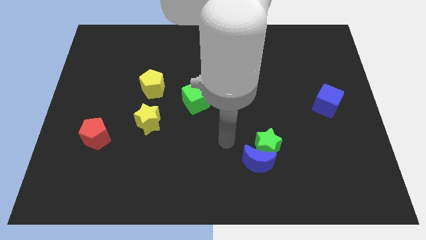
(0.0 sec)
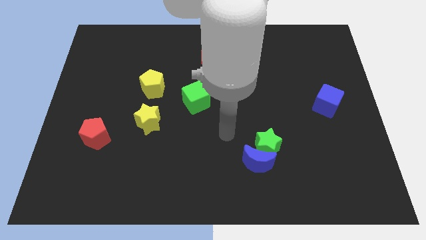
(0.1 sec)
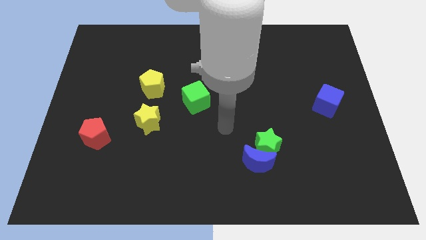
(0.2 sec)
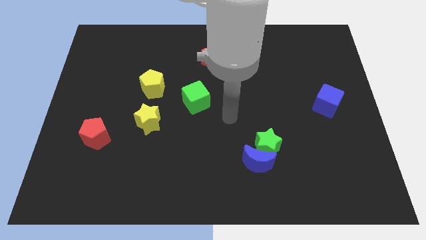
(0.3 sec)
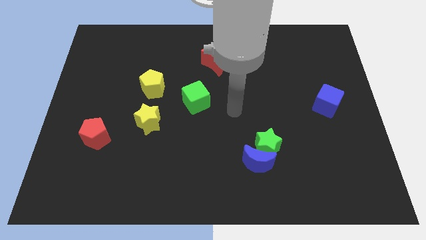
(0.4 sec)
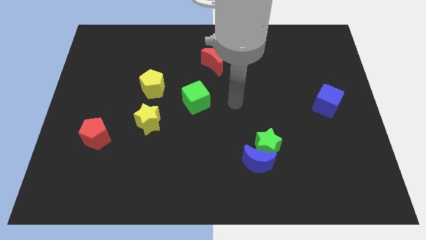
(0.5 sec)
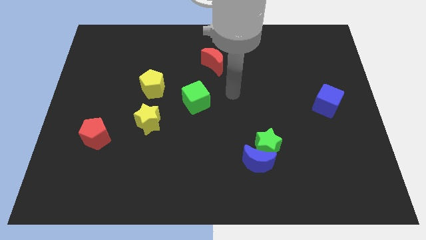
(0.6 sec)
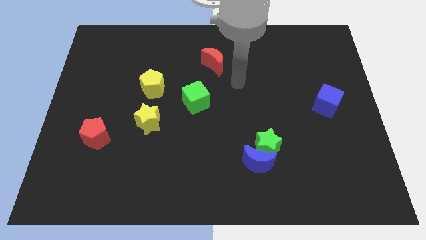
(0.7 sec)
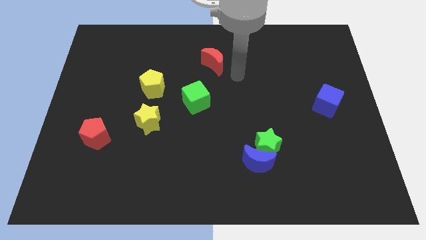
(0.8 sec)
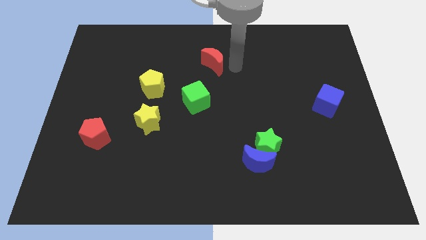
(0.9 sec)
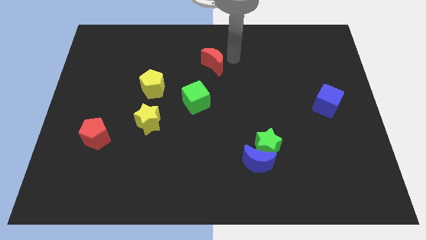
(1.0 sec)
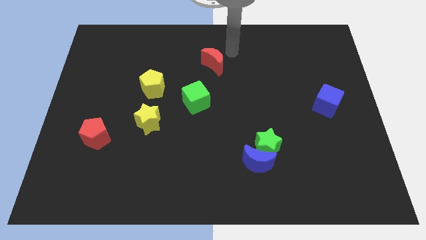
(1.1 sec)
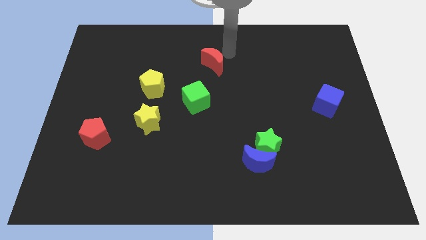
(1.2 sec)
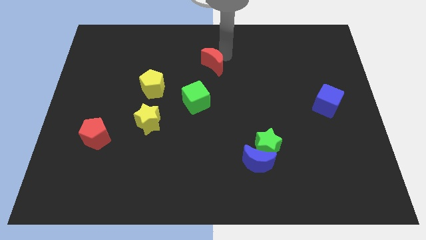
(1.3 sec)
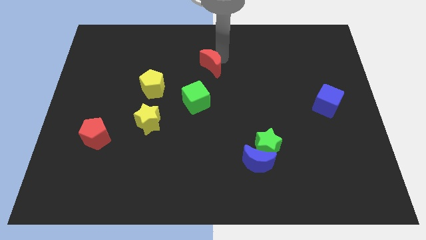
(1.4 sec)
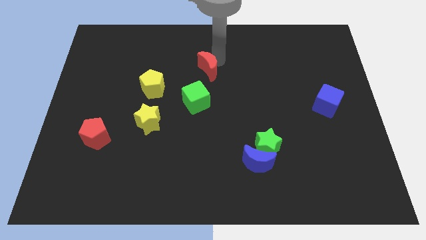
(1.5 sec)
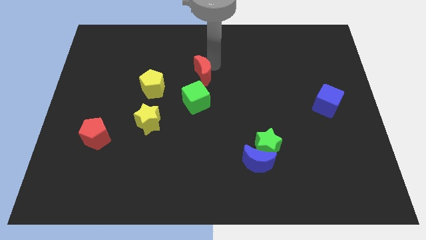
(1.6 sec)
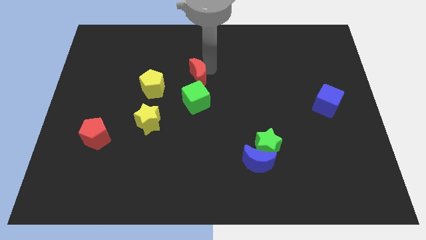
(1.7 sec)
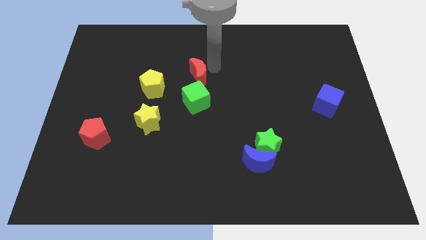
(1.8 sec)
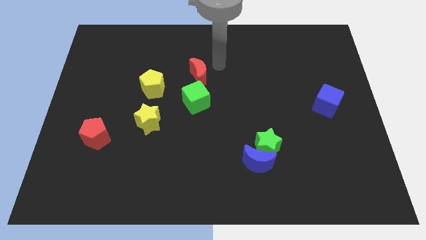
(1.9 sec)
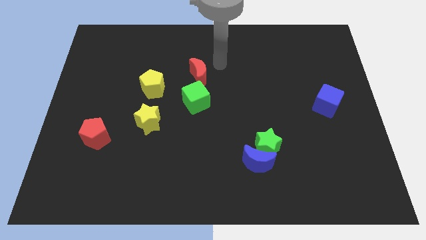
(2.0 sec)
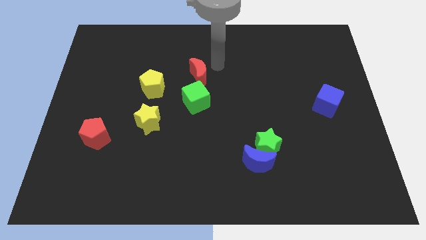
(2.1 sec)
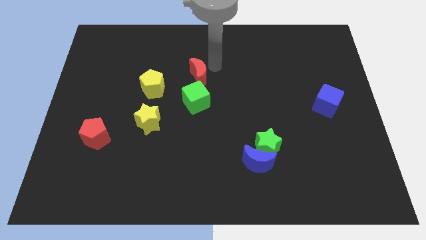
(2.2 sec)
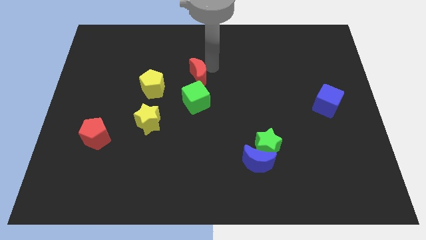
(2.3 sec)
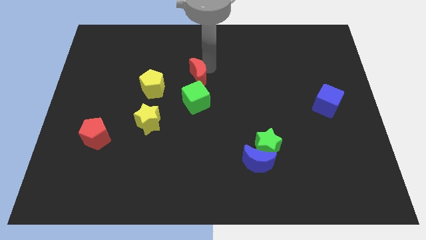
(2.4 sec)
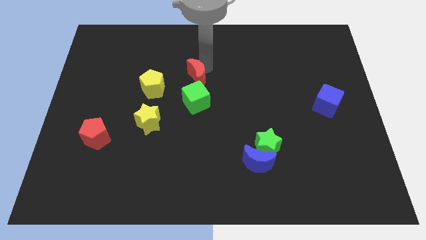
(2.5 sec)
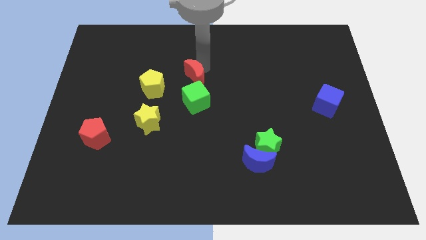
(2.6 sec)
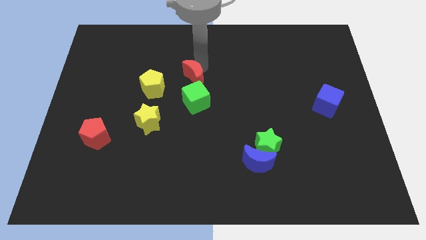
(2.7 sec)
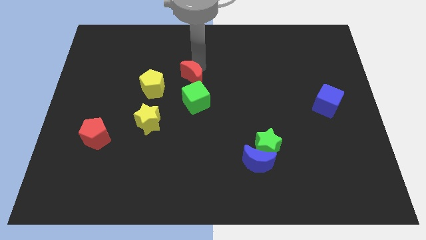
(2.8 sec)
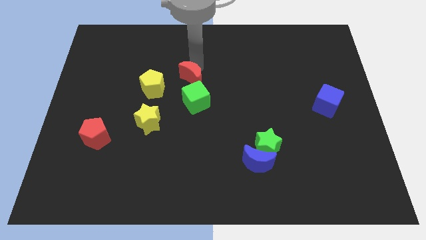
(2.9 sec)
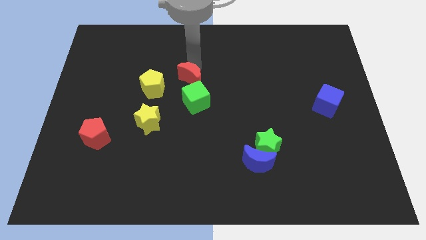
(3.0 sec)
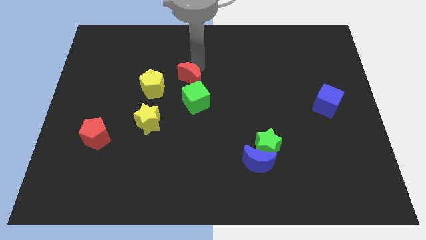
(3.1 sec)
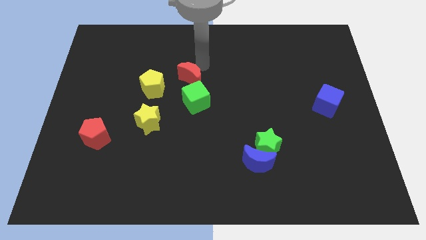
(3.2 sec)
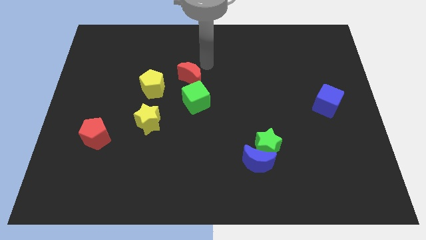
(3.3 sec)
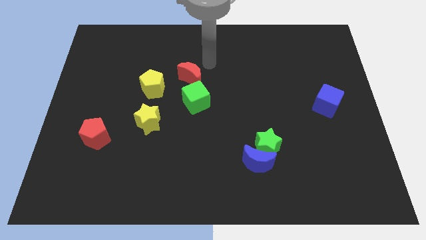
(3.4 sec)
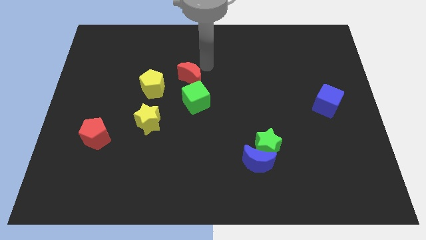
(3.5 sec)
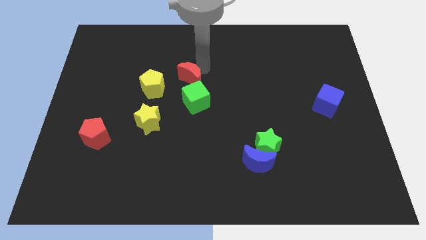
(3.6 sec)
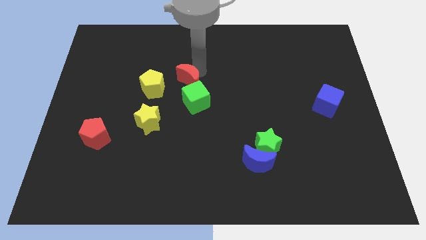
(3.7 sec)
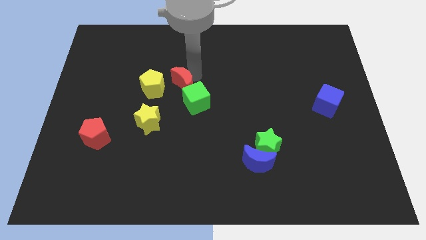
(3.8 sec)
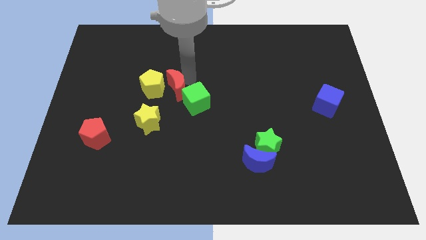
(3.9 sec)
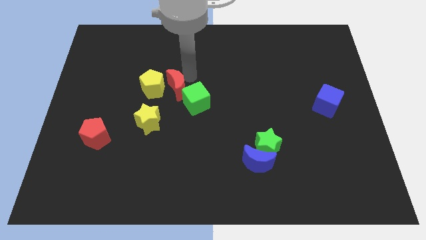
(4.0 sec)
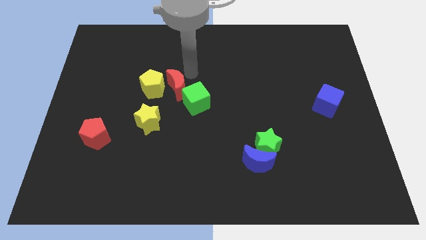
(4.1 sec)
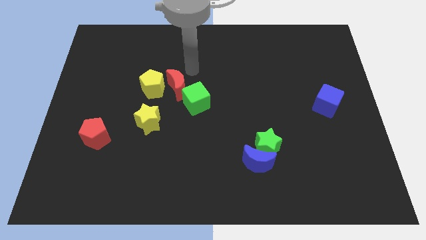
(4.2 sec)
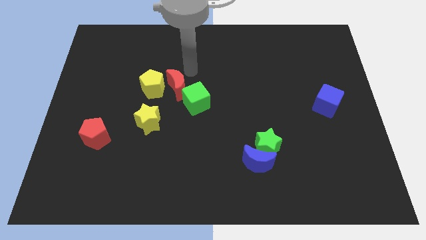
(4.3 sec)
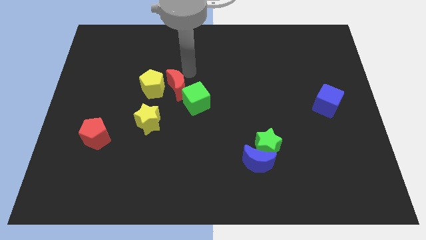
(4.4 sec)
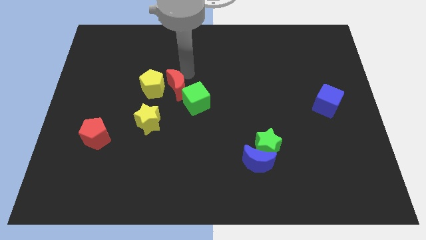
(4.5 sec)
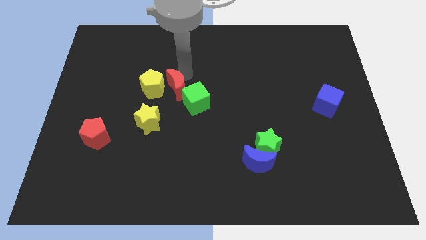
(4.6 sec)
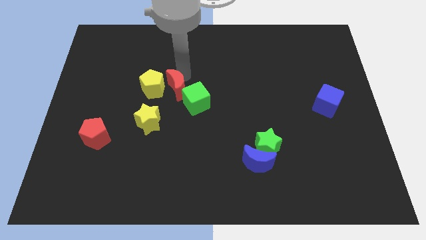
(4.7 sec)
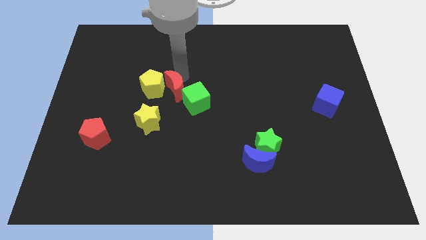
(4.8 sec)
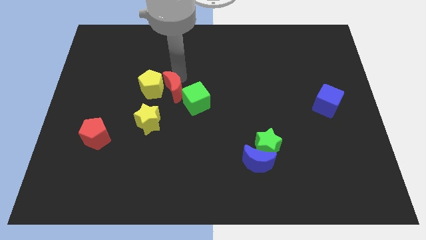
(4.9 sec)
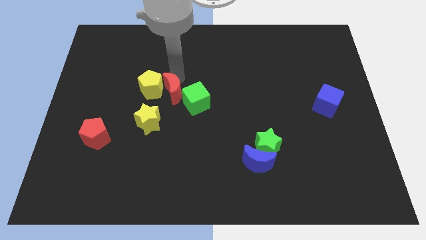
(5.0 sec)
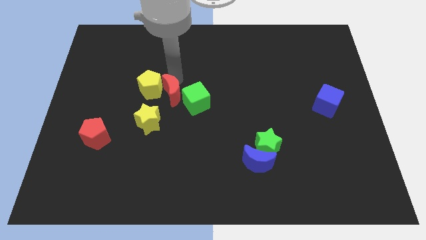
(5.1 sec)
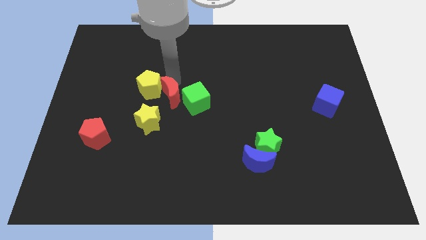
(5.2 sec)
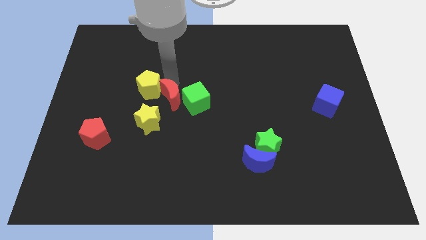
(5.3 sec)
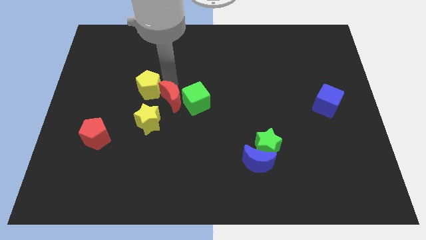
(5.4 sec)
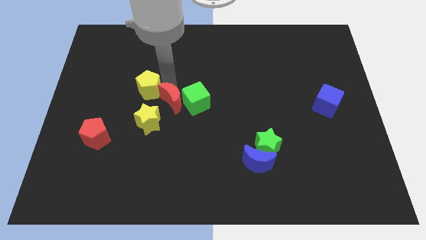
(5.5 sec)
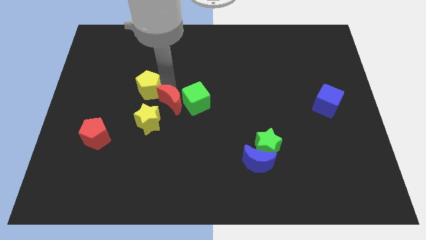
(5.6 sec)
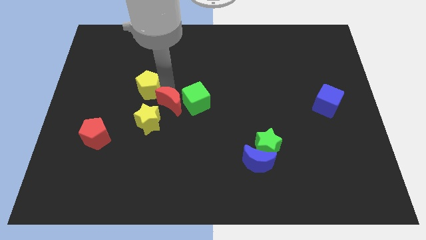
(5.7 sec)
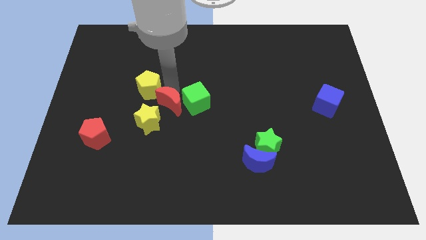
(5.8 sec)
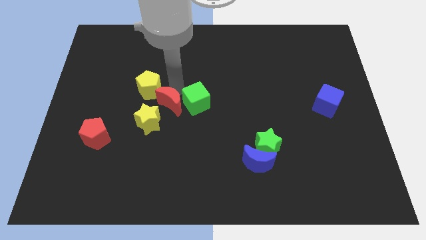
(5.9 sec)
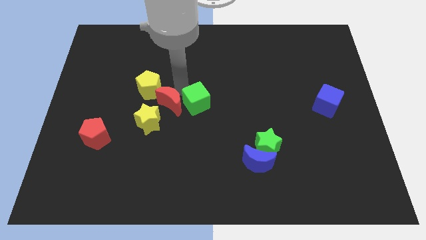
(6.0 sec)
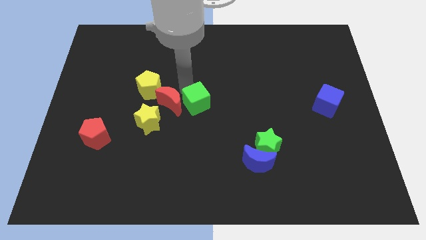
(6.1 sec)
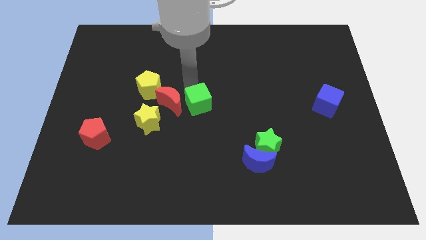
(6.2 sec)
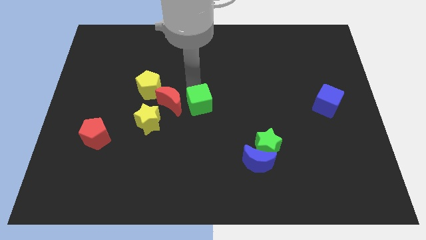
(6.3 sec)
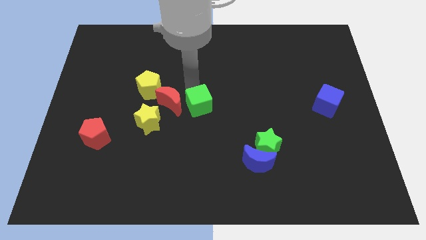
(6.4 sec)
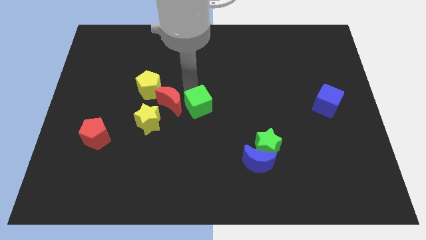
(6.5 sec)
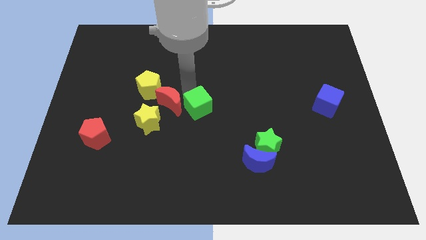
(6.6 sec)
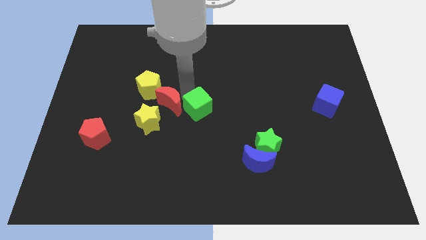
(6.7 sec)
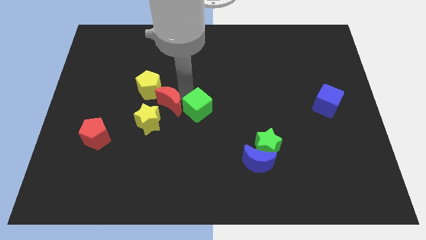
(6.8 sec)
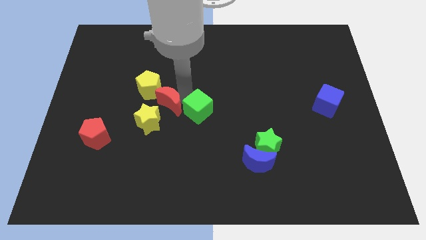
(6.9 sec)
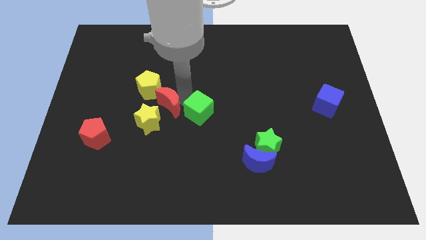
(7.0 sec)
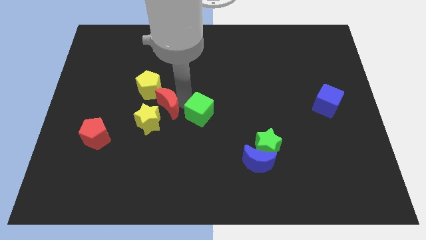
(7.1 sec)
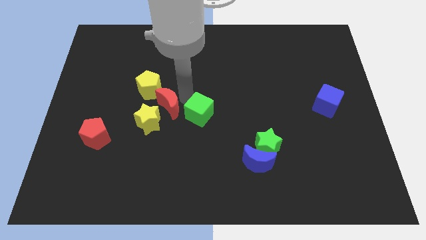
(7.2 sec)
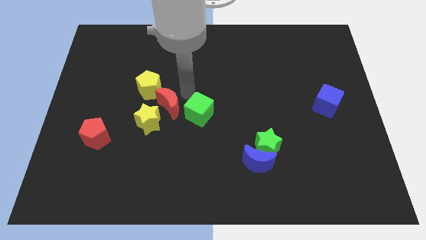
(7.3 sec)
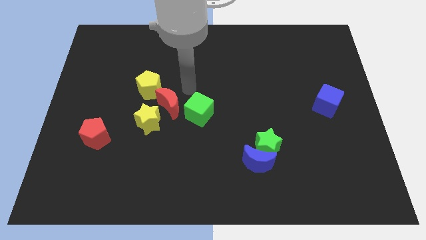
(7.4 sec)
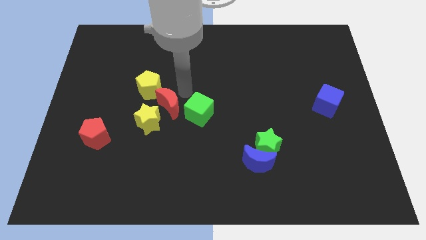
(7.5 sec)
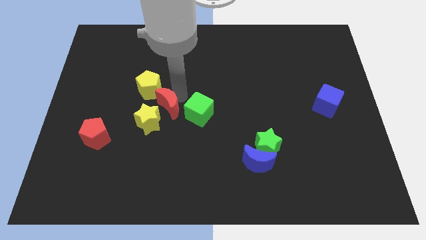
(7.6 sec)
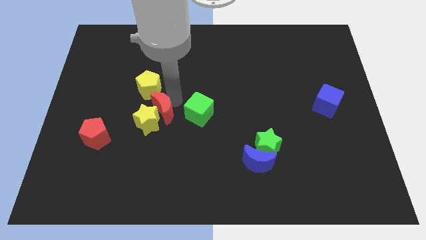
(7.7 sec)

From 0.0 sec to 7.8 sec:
move the red moon next to the yellow star
